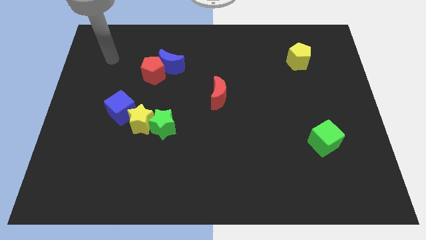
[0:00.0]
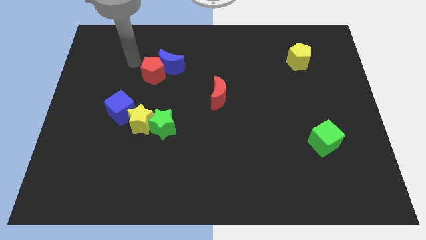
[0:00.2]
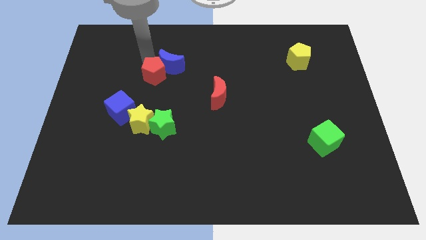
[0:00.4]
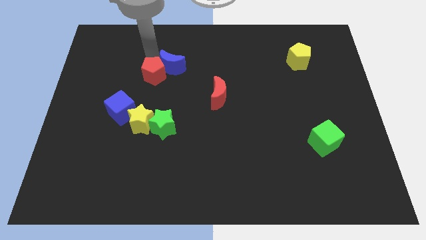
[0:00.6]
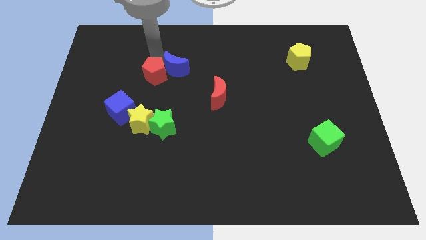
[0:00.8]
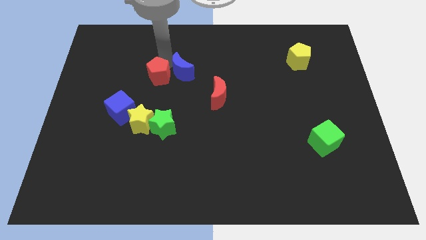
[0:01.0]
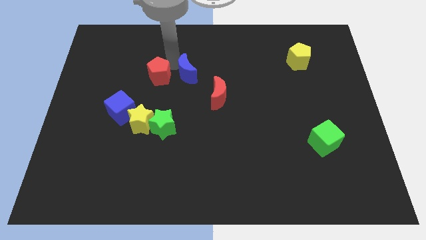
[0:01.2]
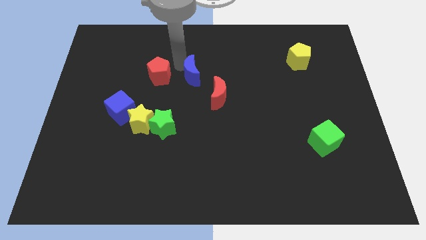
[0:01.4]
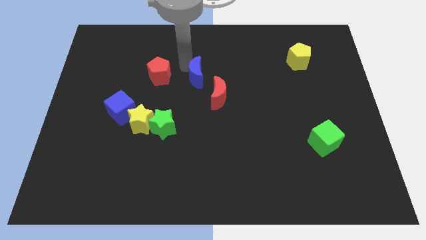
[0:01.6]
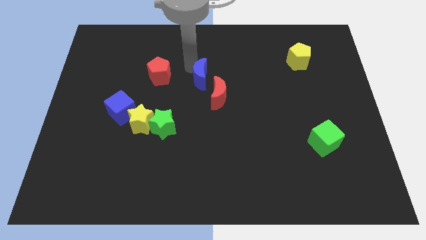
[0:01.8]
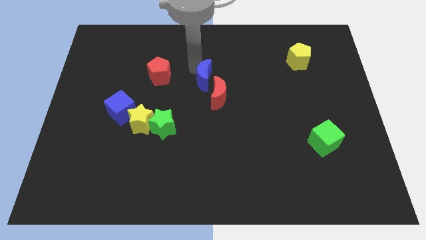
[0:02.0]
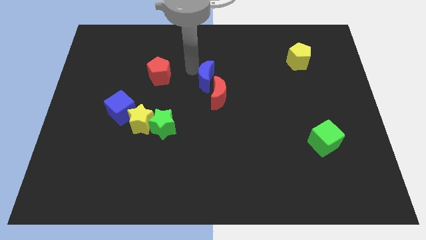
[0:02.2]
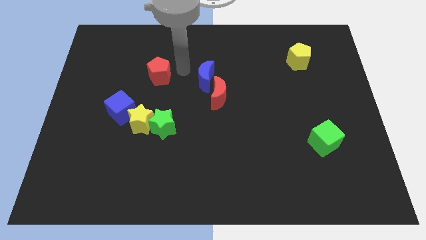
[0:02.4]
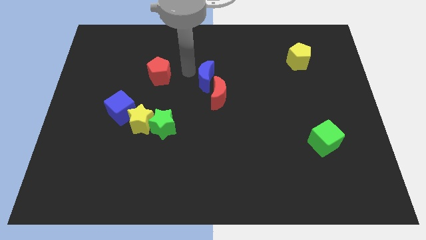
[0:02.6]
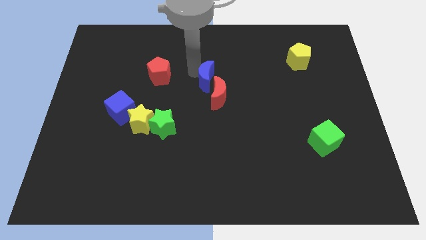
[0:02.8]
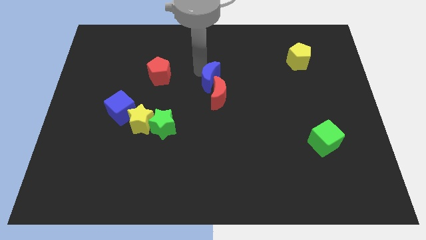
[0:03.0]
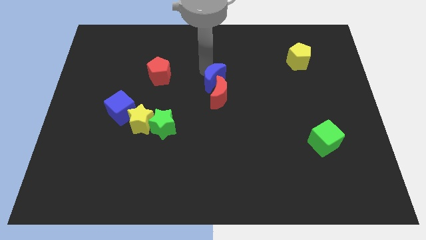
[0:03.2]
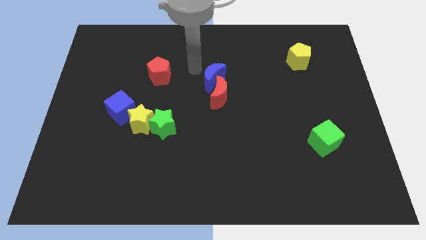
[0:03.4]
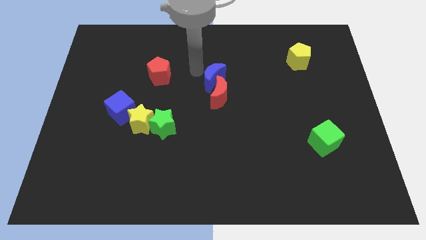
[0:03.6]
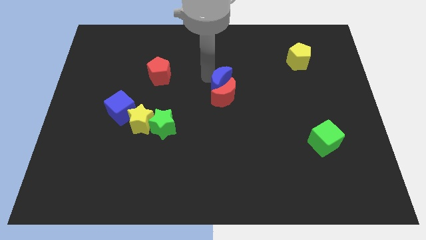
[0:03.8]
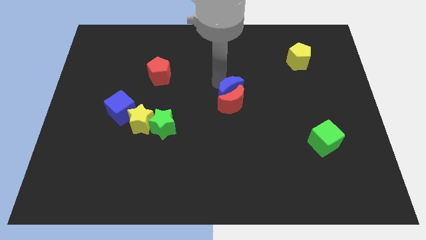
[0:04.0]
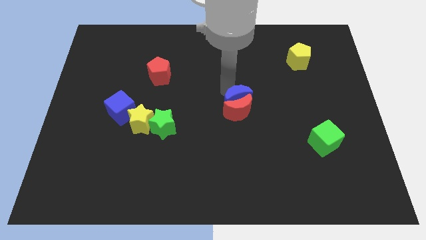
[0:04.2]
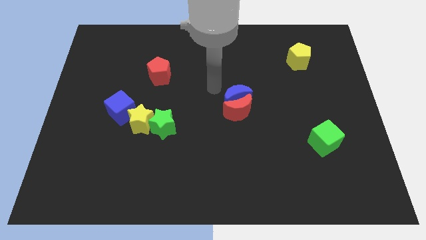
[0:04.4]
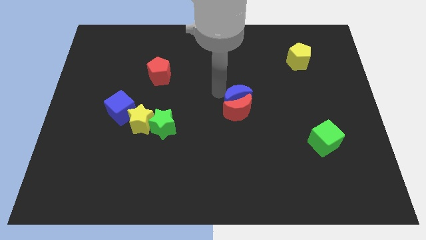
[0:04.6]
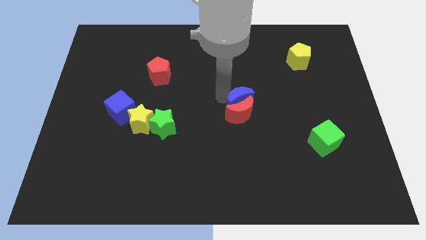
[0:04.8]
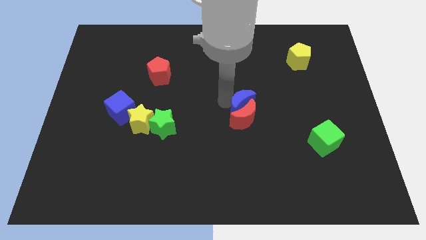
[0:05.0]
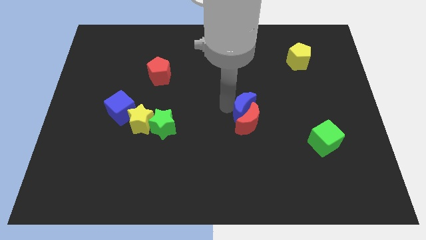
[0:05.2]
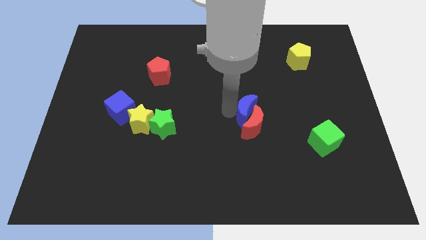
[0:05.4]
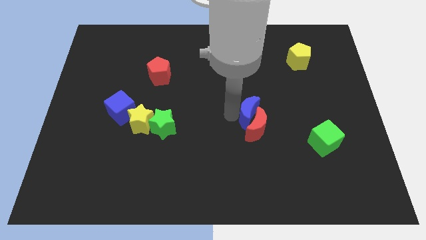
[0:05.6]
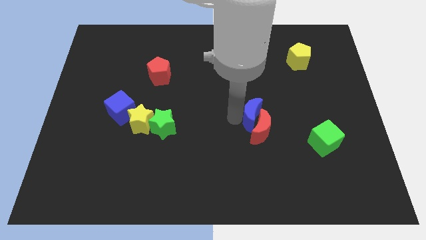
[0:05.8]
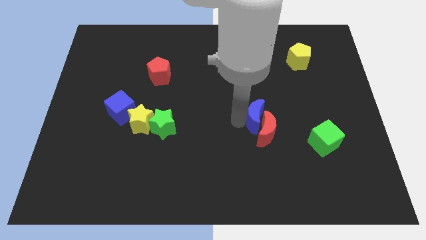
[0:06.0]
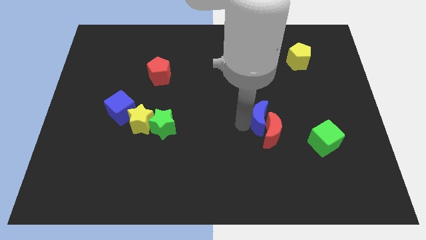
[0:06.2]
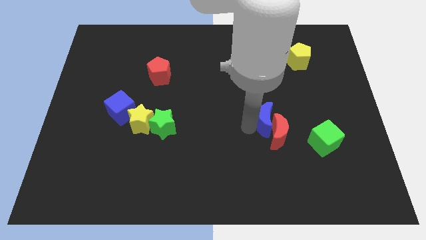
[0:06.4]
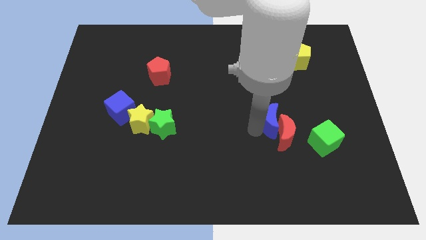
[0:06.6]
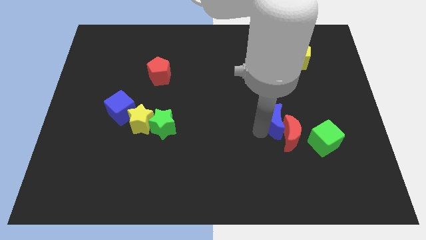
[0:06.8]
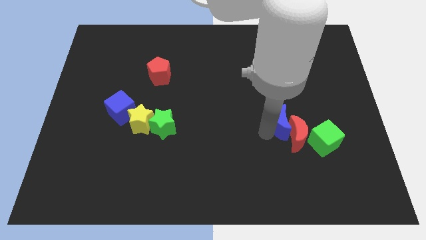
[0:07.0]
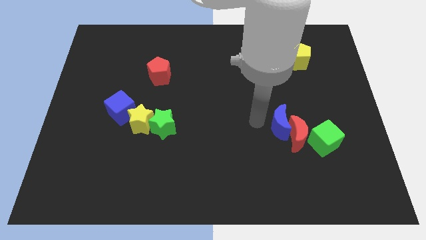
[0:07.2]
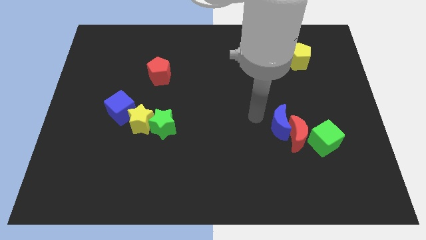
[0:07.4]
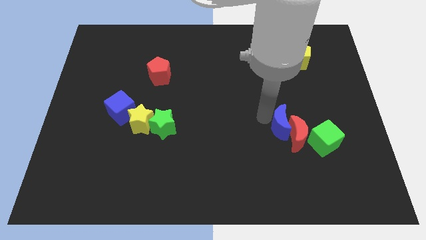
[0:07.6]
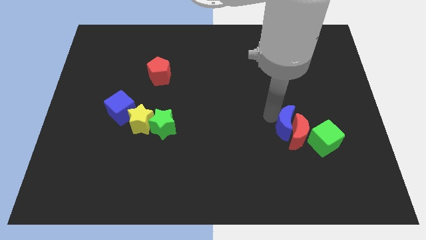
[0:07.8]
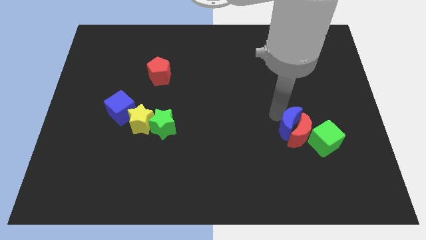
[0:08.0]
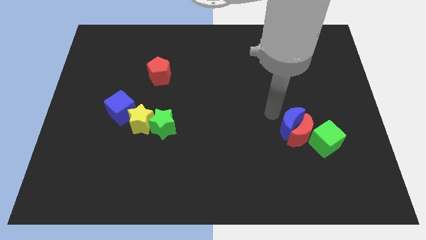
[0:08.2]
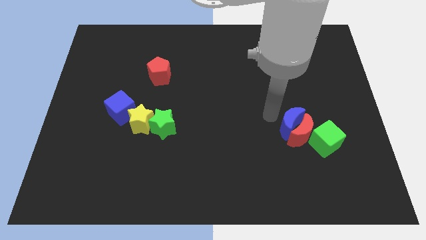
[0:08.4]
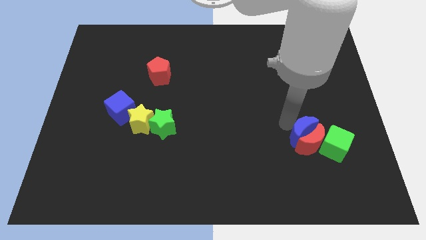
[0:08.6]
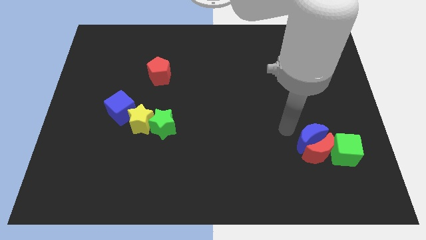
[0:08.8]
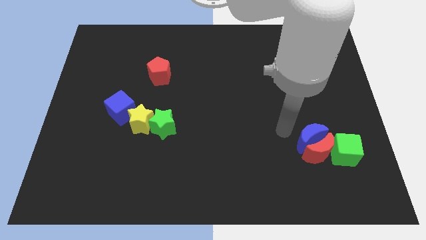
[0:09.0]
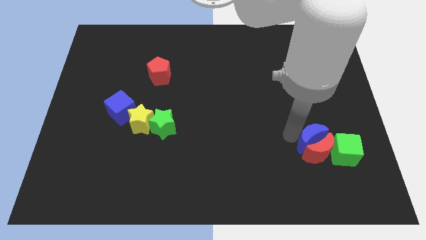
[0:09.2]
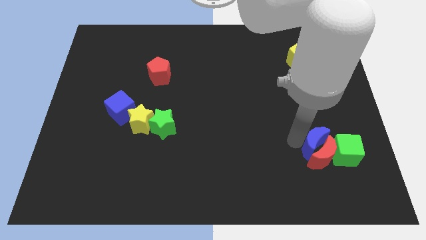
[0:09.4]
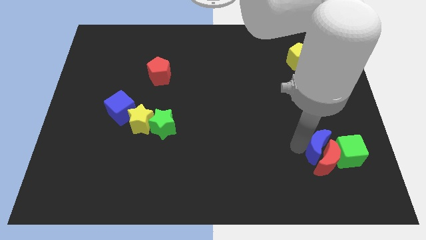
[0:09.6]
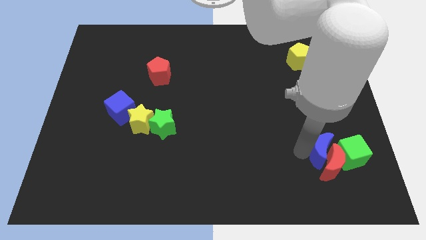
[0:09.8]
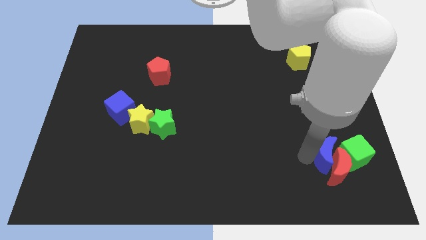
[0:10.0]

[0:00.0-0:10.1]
push the blue moon to the green cube

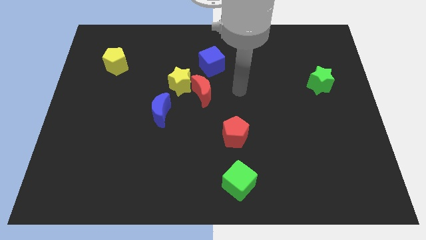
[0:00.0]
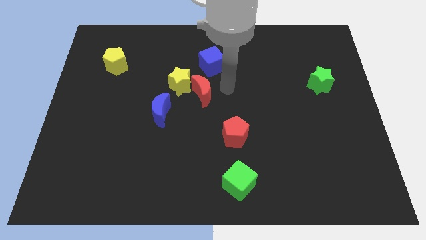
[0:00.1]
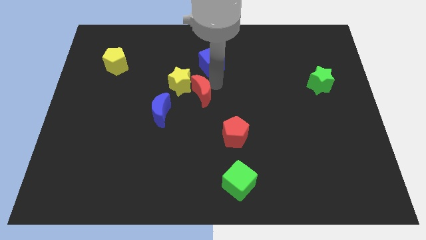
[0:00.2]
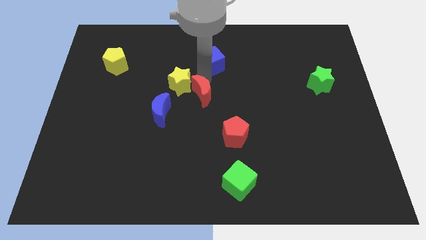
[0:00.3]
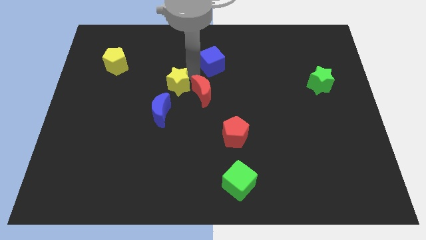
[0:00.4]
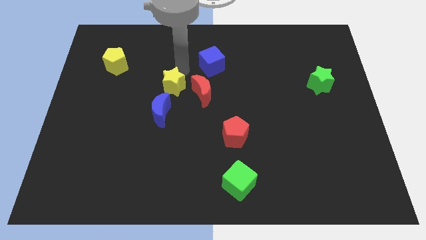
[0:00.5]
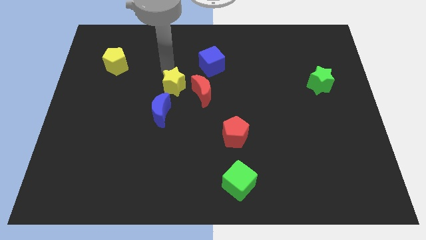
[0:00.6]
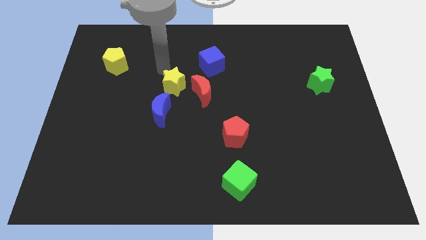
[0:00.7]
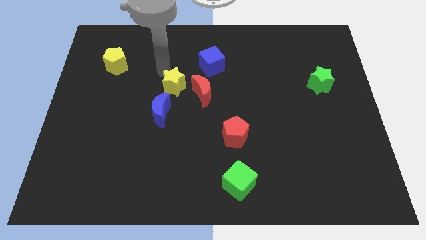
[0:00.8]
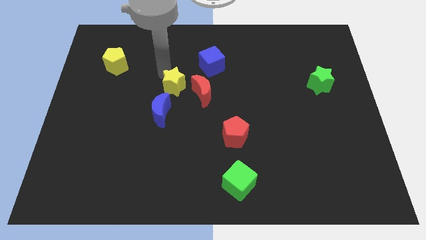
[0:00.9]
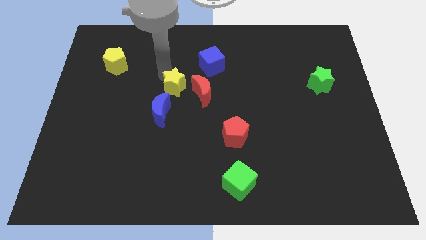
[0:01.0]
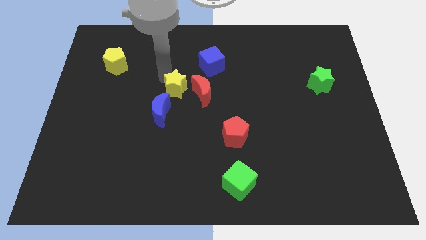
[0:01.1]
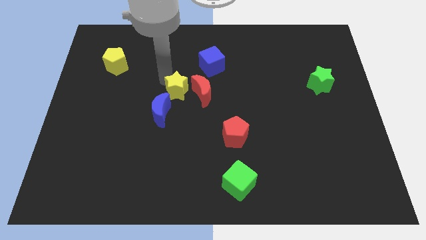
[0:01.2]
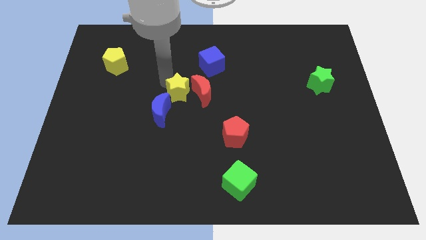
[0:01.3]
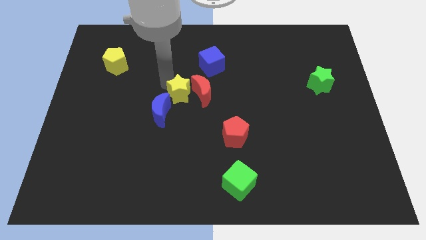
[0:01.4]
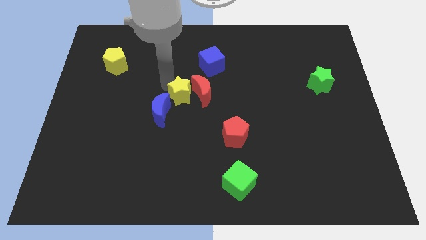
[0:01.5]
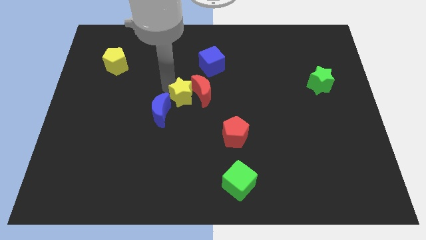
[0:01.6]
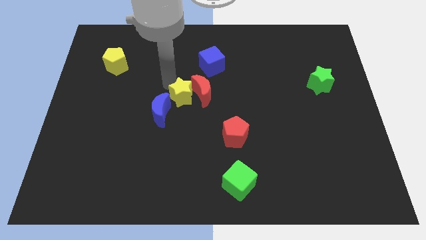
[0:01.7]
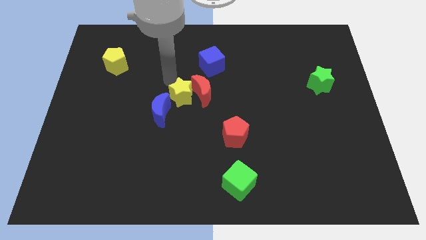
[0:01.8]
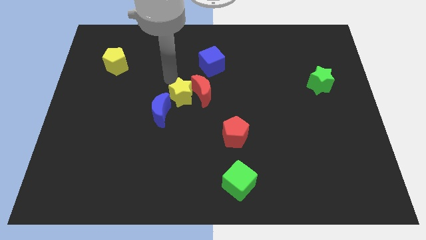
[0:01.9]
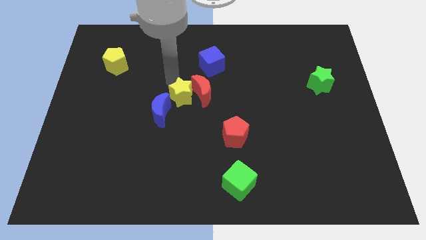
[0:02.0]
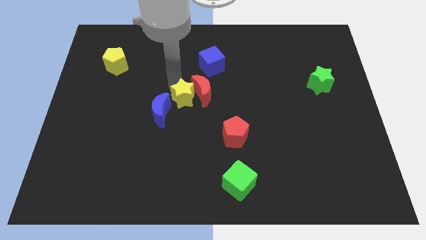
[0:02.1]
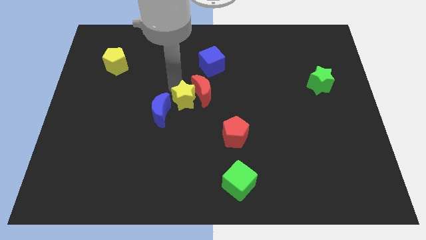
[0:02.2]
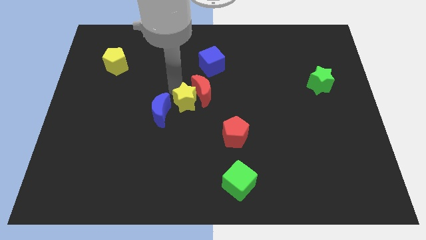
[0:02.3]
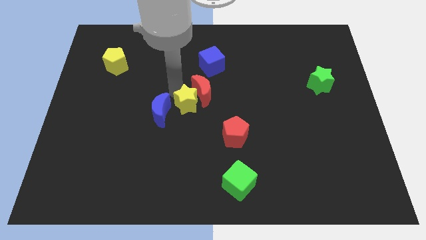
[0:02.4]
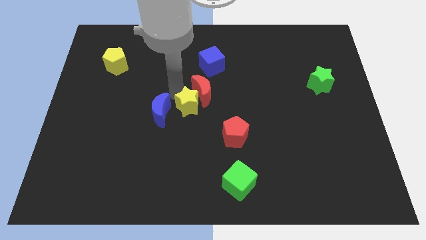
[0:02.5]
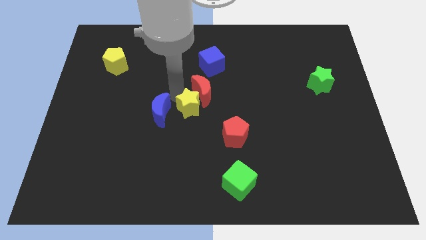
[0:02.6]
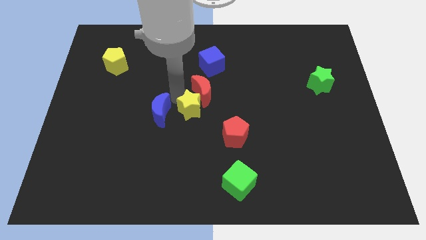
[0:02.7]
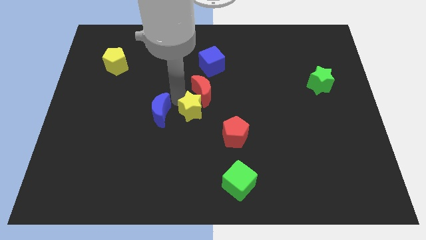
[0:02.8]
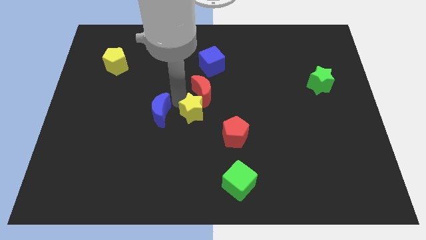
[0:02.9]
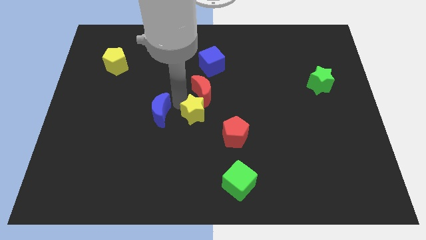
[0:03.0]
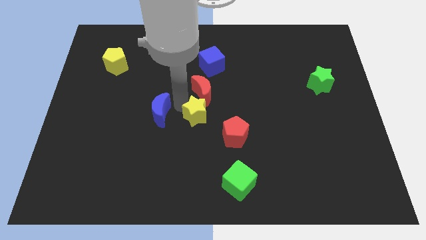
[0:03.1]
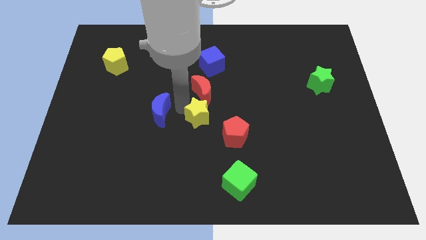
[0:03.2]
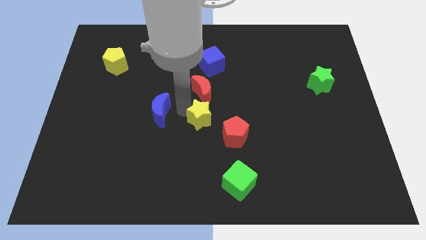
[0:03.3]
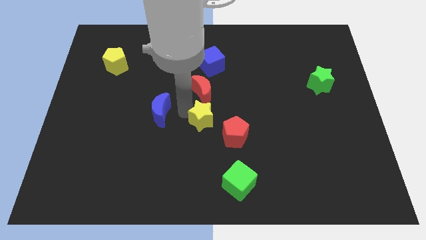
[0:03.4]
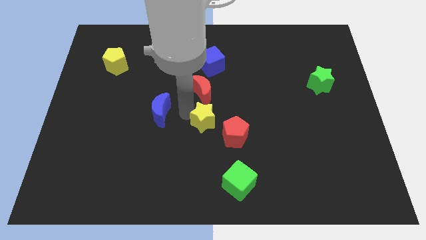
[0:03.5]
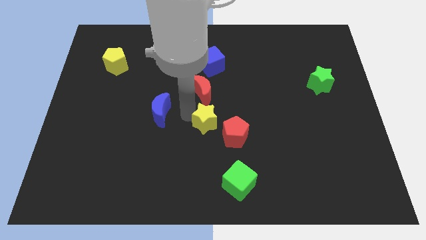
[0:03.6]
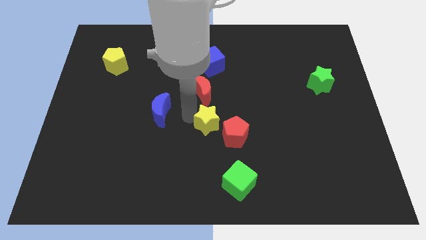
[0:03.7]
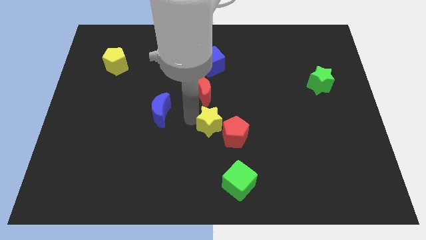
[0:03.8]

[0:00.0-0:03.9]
put the yellow star close to the red pentagon
